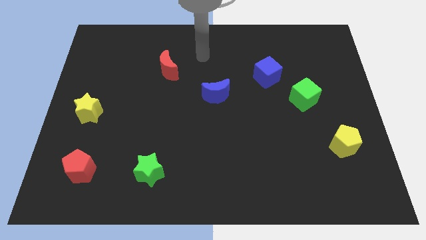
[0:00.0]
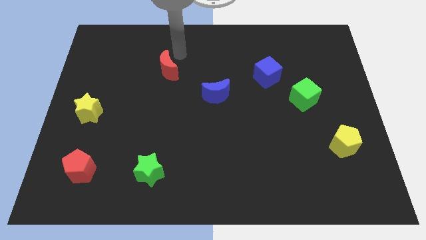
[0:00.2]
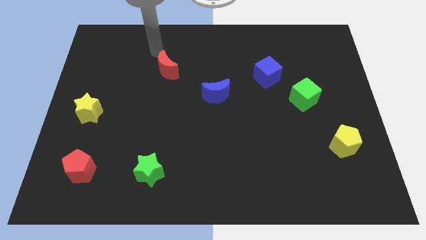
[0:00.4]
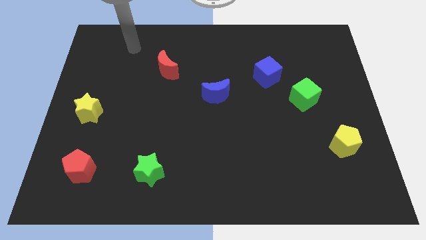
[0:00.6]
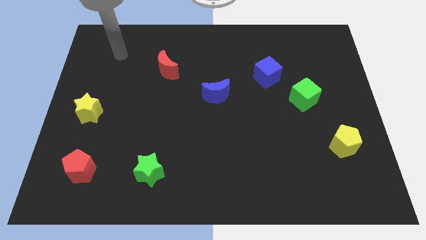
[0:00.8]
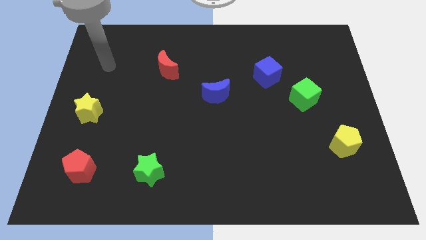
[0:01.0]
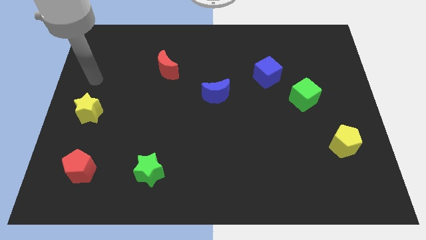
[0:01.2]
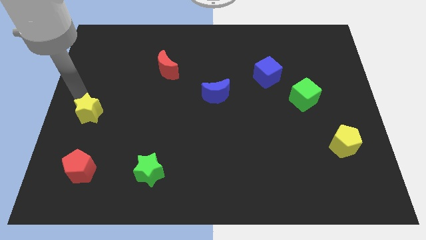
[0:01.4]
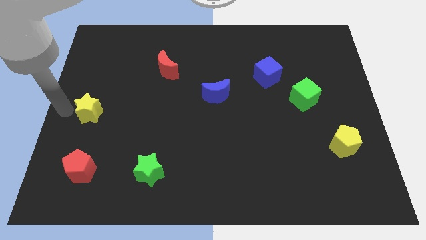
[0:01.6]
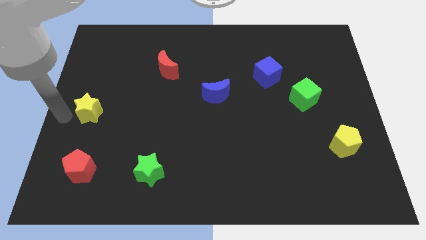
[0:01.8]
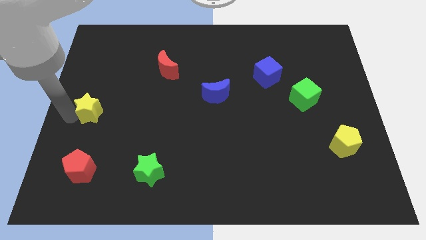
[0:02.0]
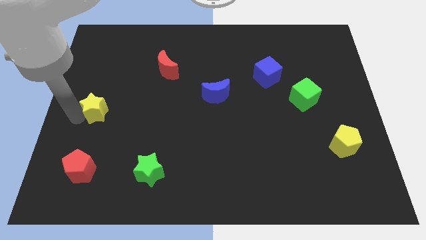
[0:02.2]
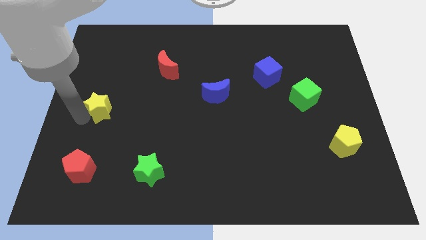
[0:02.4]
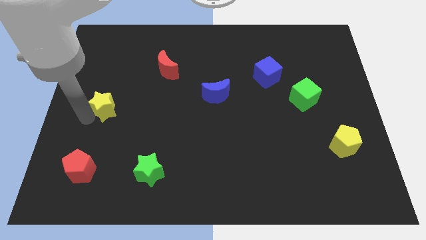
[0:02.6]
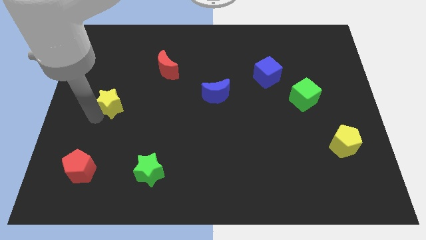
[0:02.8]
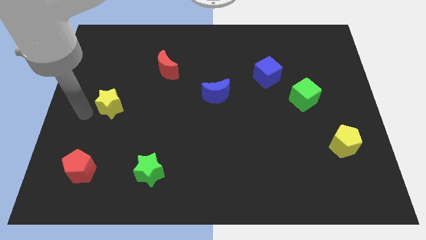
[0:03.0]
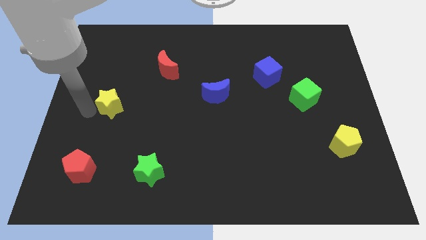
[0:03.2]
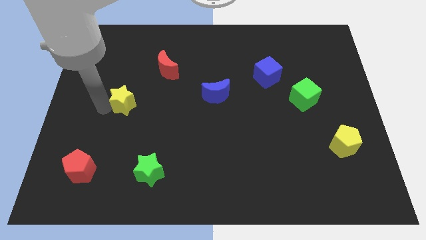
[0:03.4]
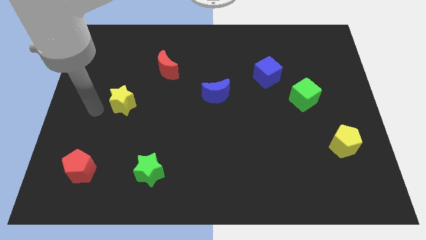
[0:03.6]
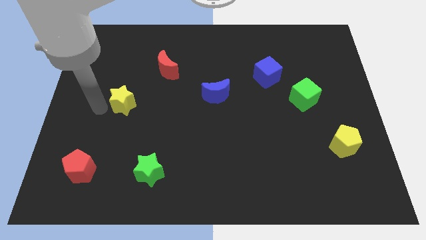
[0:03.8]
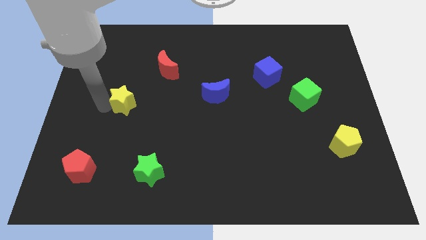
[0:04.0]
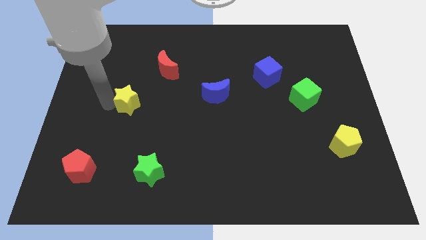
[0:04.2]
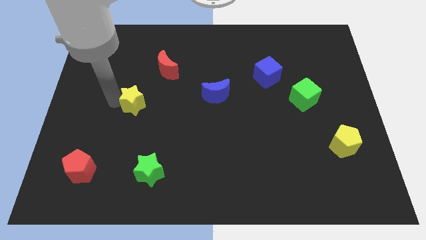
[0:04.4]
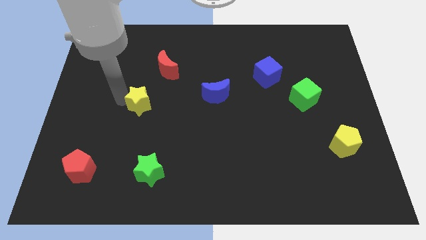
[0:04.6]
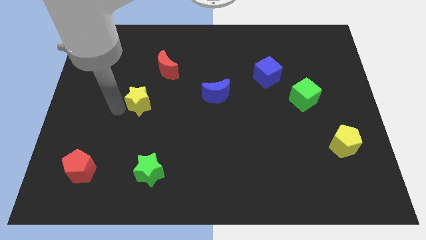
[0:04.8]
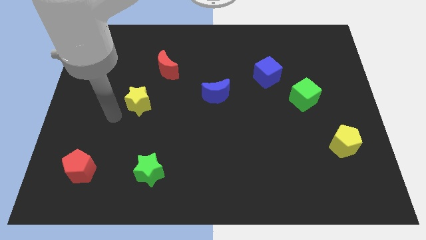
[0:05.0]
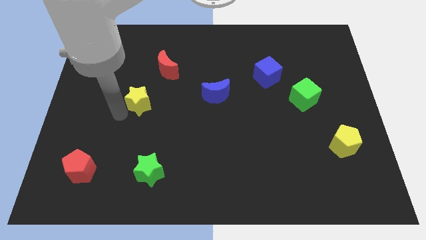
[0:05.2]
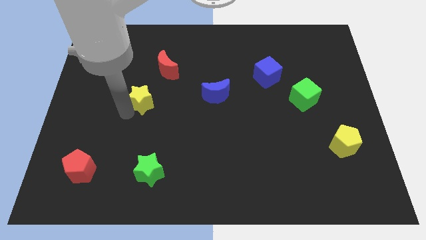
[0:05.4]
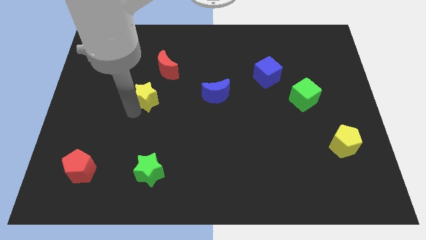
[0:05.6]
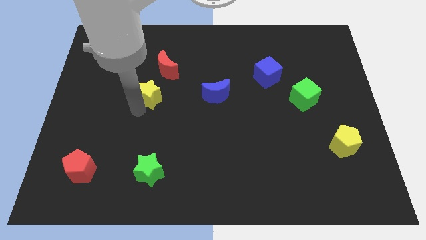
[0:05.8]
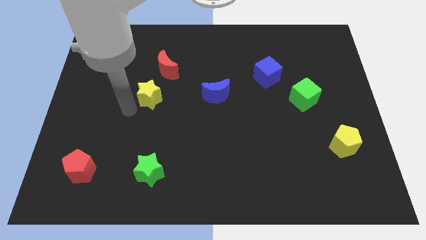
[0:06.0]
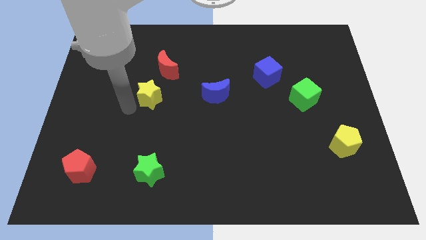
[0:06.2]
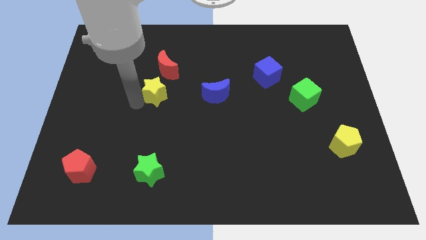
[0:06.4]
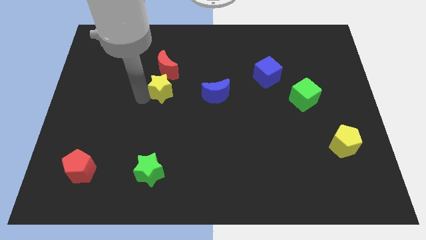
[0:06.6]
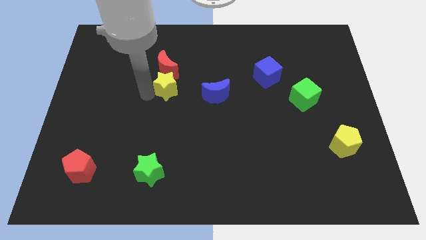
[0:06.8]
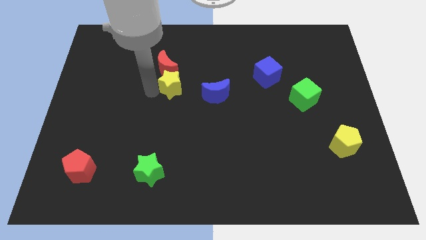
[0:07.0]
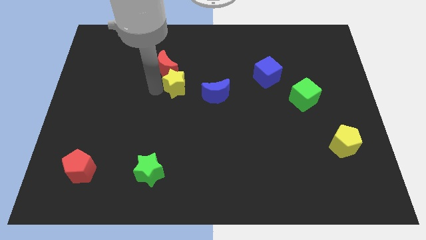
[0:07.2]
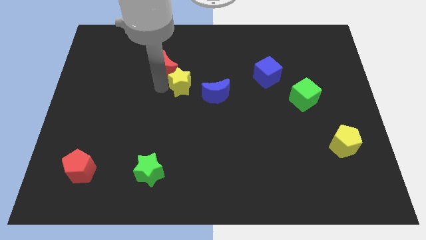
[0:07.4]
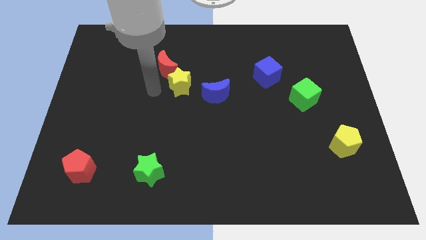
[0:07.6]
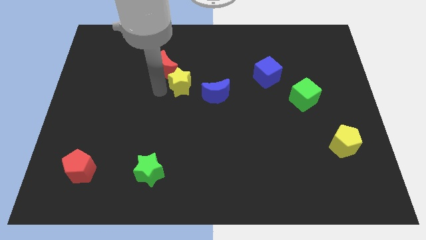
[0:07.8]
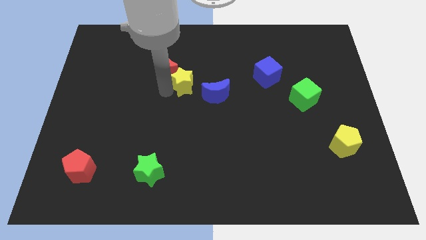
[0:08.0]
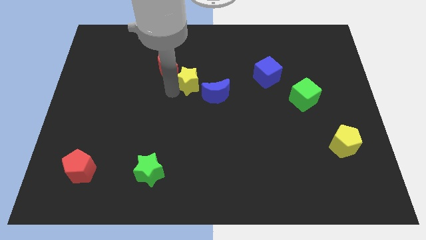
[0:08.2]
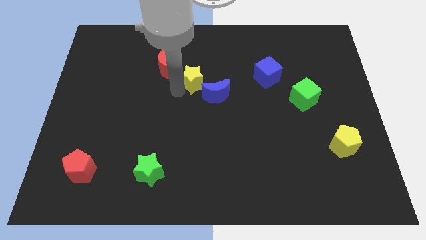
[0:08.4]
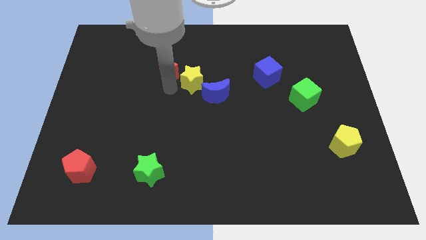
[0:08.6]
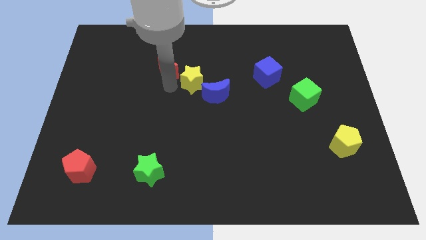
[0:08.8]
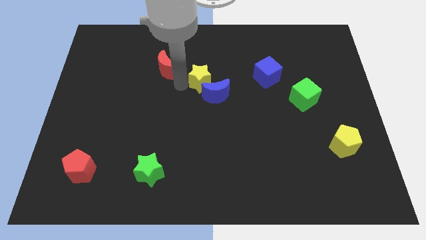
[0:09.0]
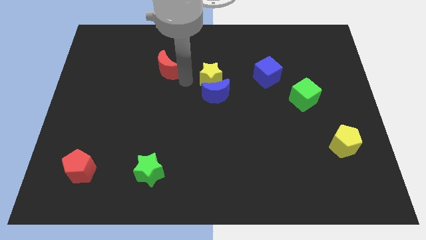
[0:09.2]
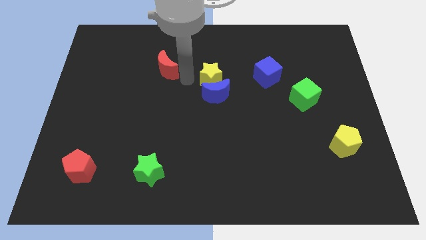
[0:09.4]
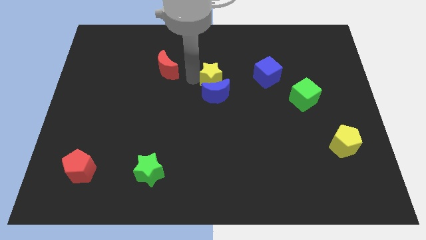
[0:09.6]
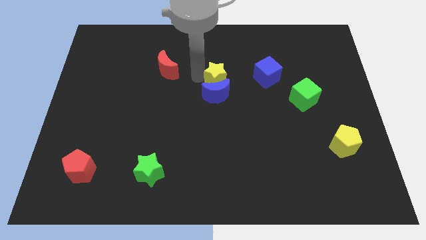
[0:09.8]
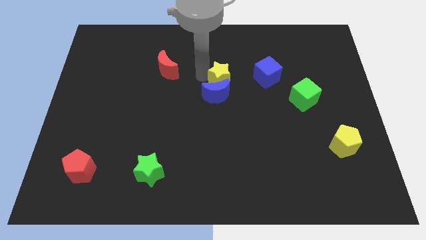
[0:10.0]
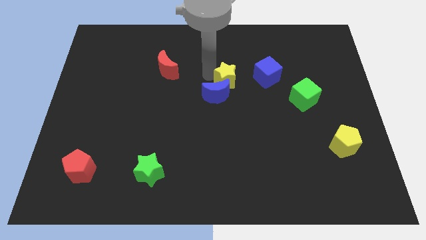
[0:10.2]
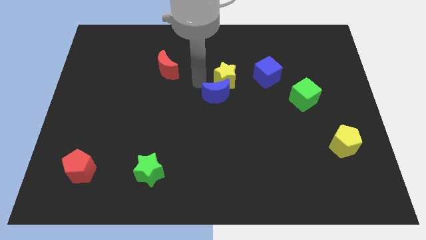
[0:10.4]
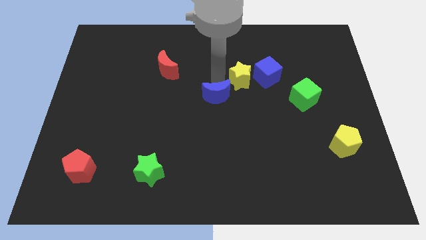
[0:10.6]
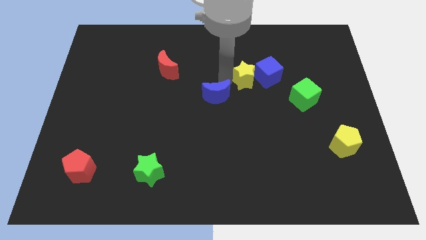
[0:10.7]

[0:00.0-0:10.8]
put the yellow star close to the blue cube

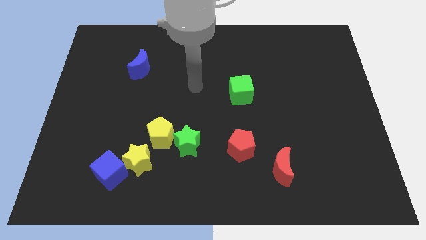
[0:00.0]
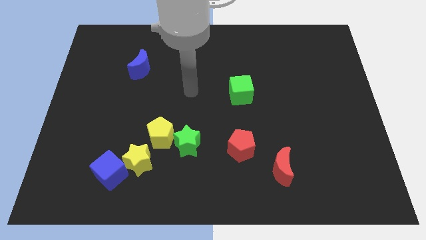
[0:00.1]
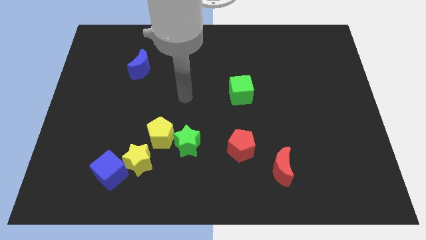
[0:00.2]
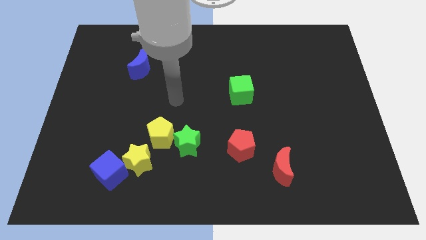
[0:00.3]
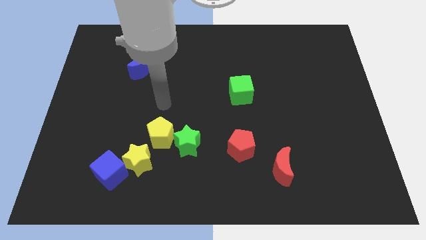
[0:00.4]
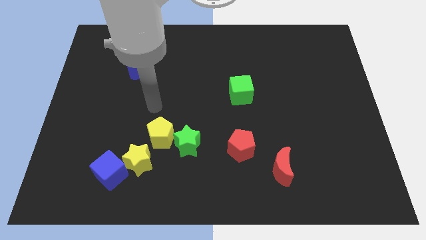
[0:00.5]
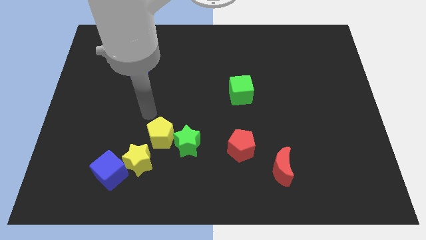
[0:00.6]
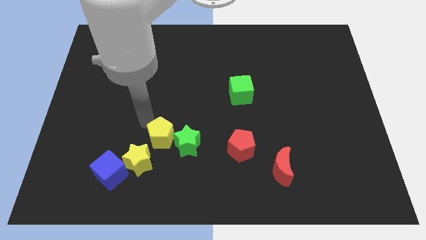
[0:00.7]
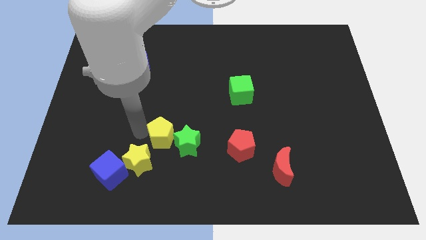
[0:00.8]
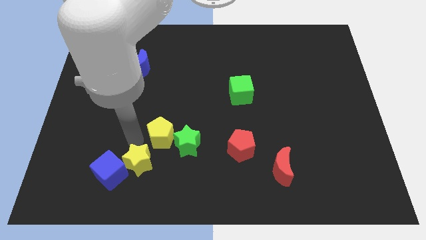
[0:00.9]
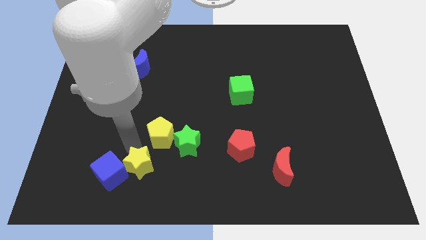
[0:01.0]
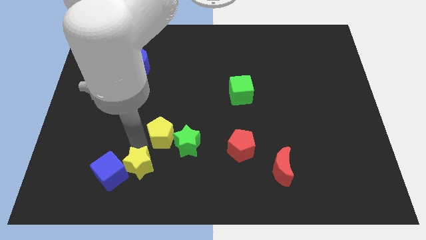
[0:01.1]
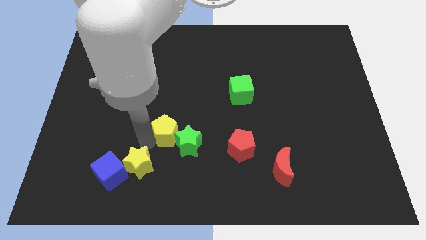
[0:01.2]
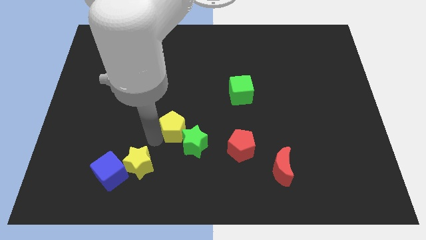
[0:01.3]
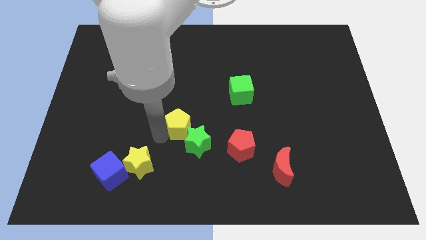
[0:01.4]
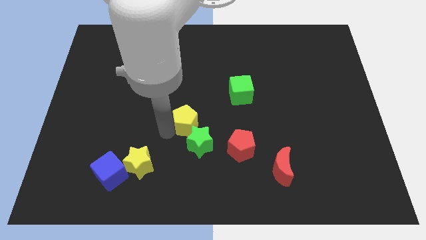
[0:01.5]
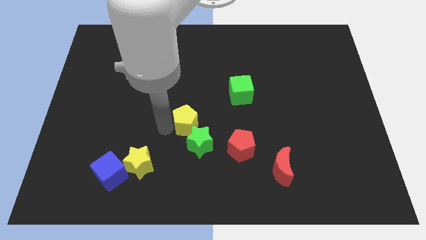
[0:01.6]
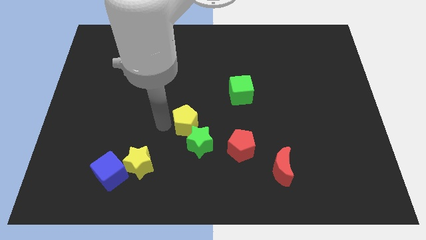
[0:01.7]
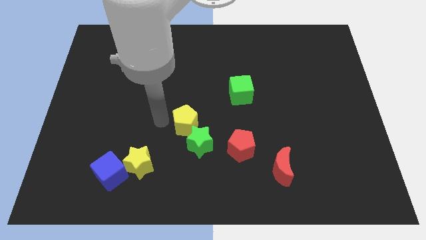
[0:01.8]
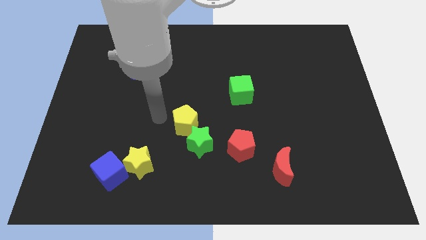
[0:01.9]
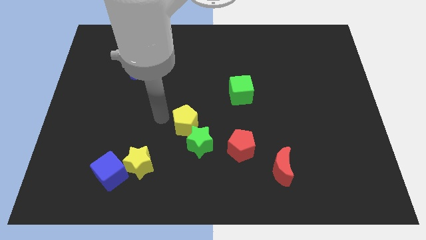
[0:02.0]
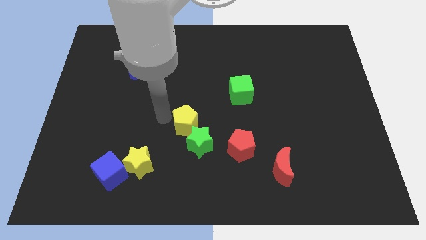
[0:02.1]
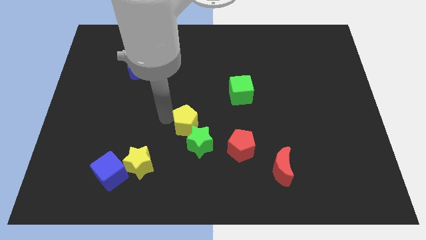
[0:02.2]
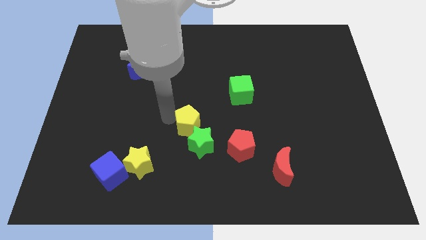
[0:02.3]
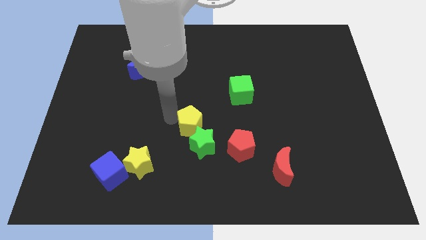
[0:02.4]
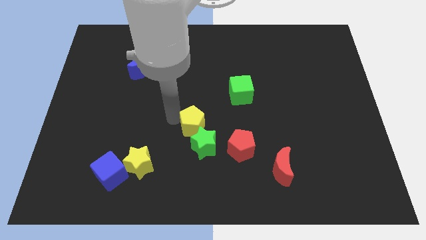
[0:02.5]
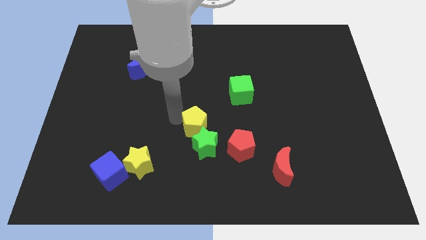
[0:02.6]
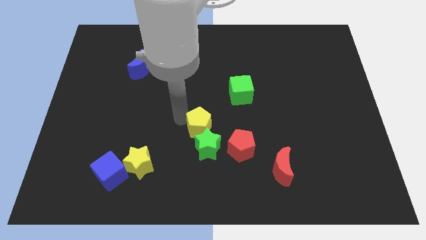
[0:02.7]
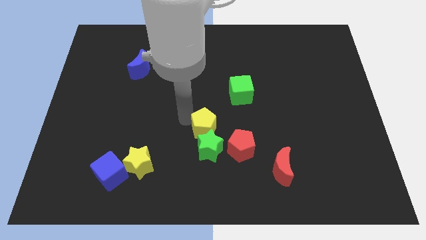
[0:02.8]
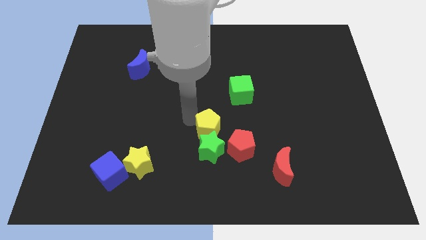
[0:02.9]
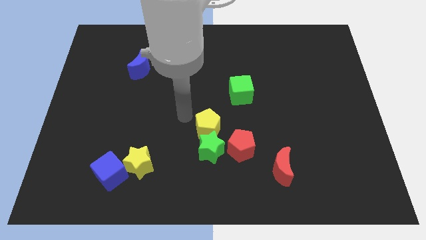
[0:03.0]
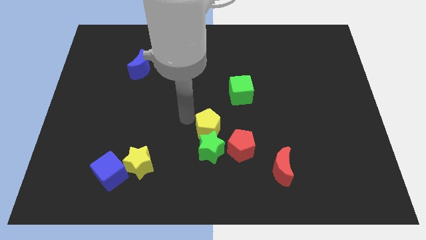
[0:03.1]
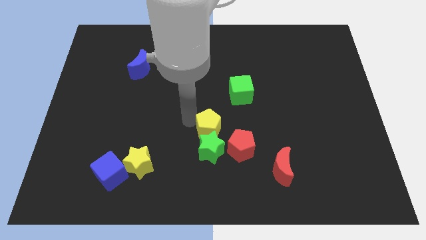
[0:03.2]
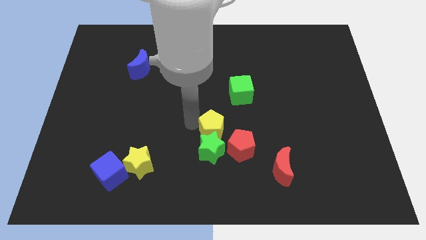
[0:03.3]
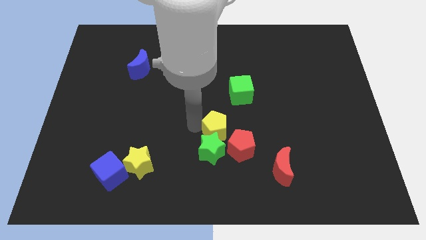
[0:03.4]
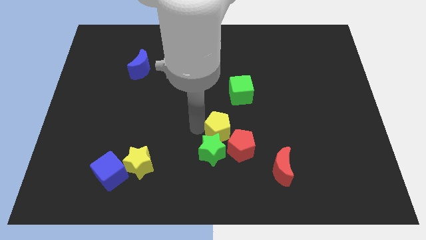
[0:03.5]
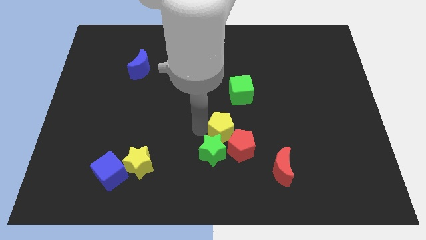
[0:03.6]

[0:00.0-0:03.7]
push the yellow pentagon next to the red pentagon
